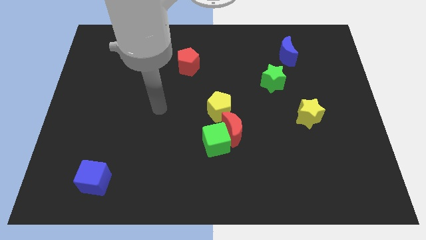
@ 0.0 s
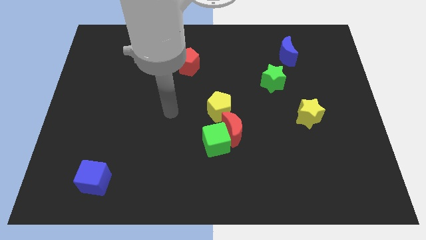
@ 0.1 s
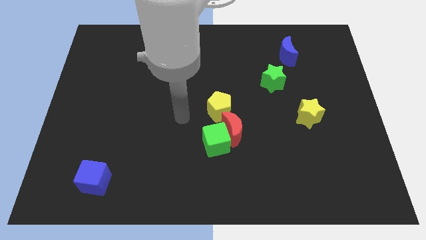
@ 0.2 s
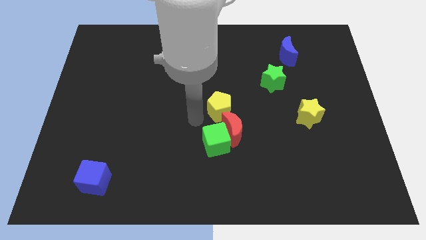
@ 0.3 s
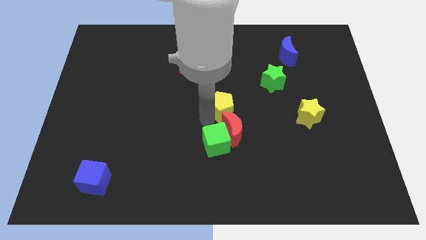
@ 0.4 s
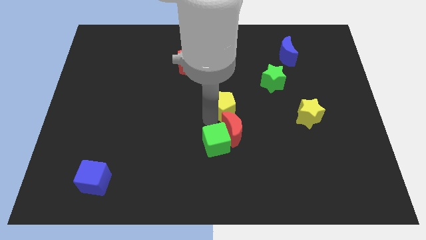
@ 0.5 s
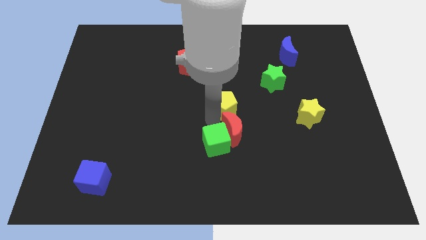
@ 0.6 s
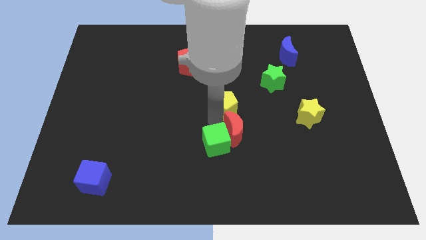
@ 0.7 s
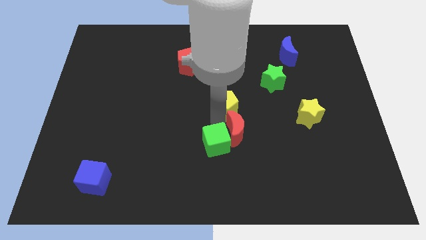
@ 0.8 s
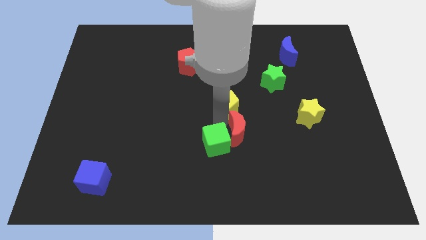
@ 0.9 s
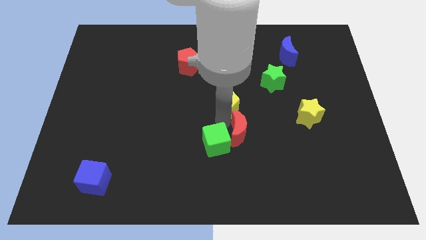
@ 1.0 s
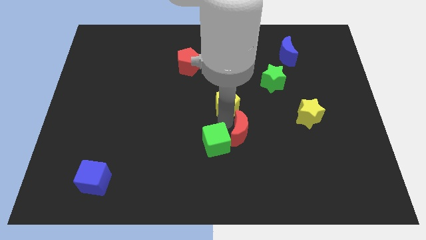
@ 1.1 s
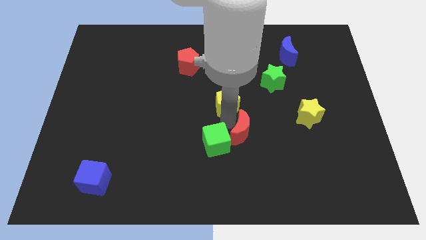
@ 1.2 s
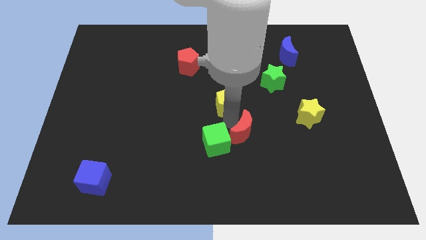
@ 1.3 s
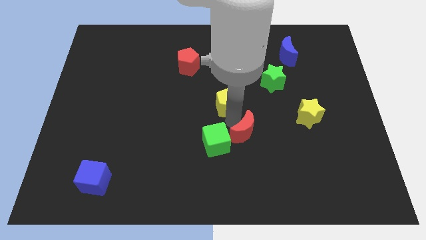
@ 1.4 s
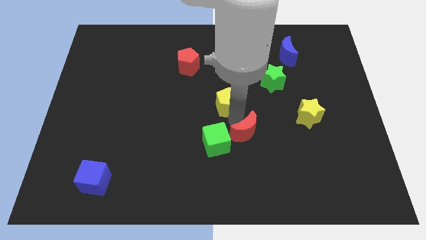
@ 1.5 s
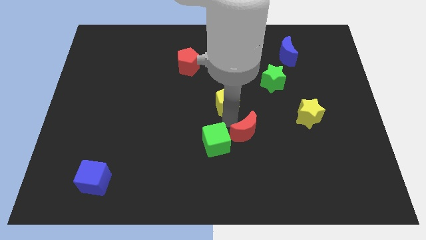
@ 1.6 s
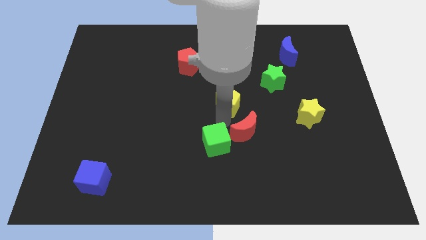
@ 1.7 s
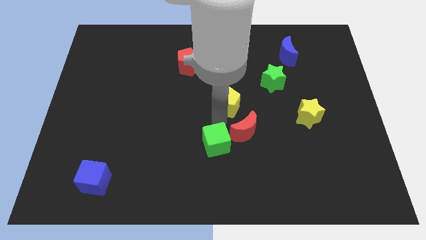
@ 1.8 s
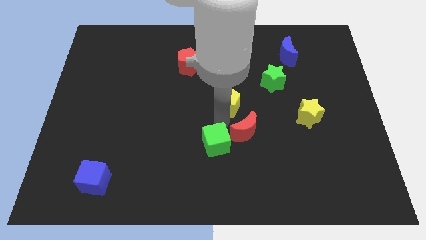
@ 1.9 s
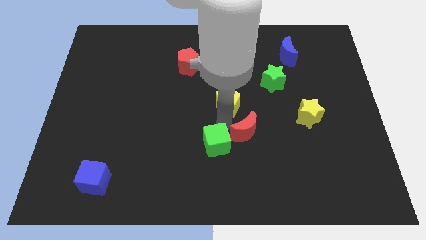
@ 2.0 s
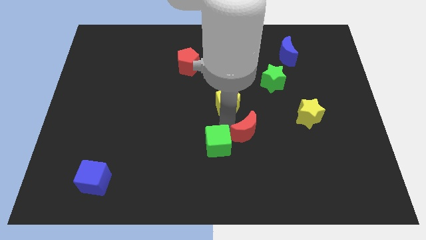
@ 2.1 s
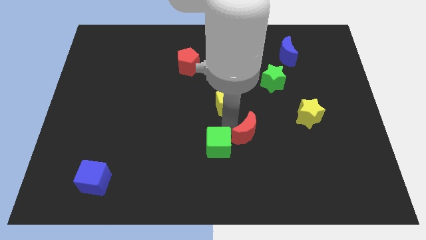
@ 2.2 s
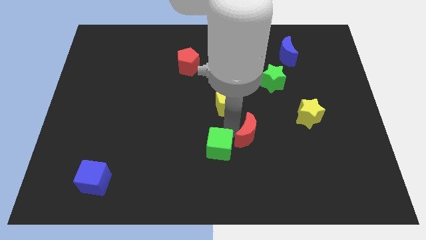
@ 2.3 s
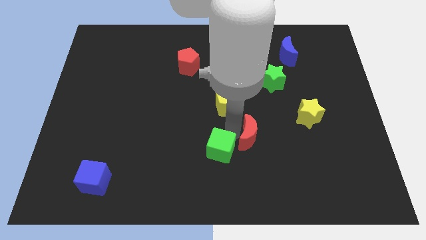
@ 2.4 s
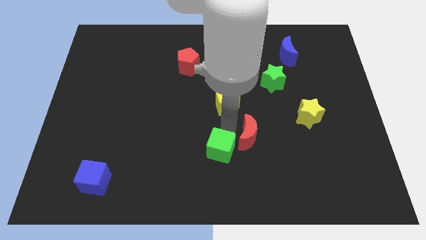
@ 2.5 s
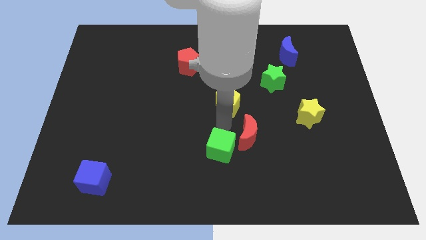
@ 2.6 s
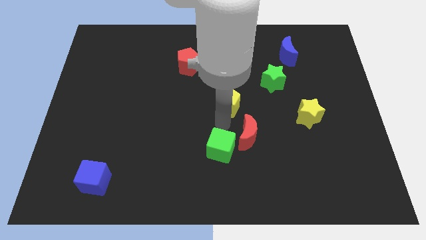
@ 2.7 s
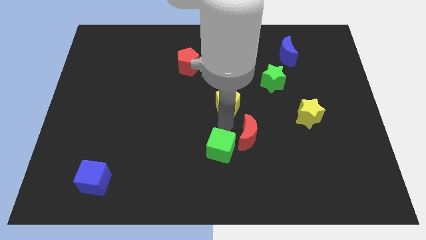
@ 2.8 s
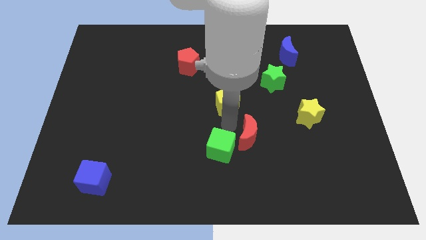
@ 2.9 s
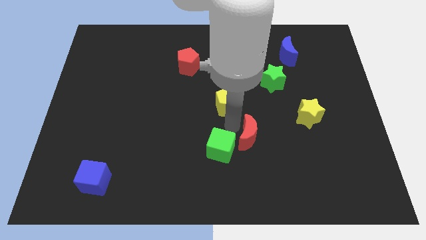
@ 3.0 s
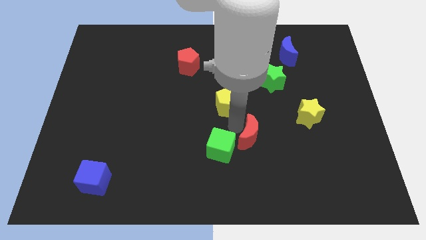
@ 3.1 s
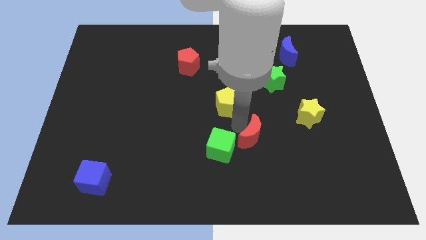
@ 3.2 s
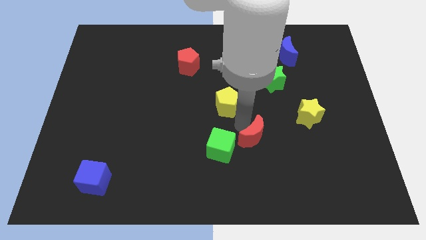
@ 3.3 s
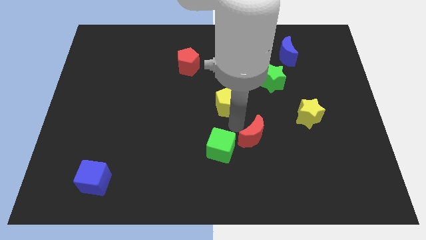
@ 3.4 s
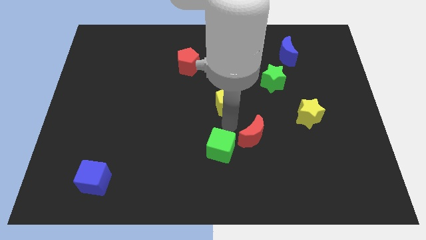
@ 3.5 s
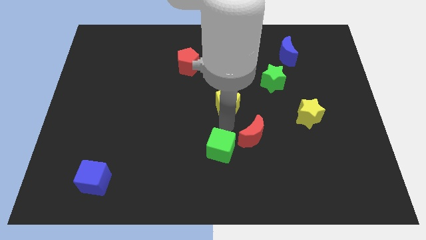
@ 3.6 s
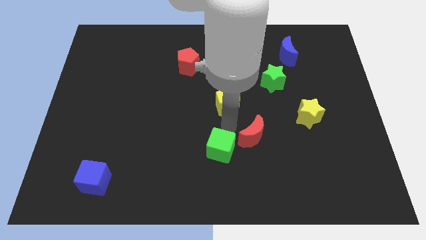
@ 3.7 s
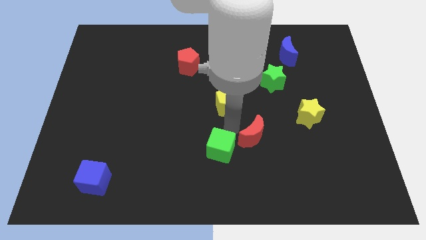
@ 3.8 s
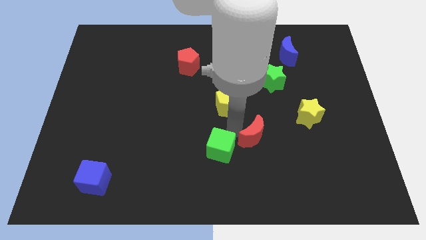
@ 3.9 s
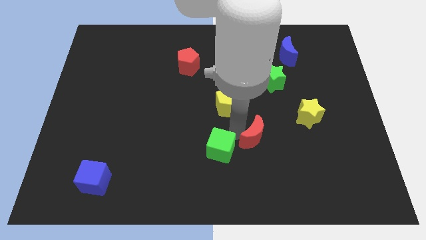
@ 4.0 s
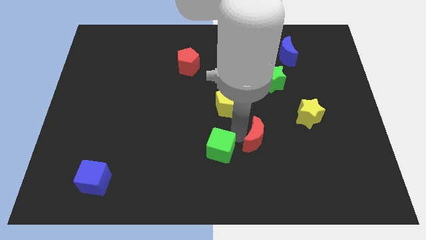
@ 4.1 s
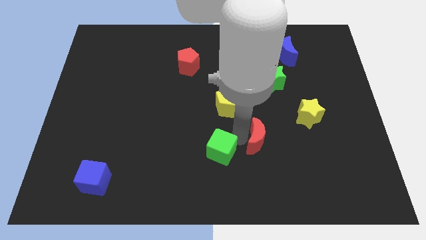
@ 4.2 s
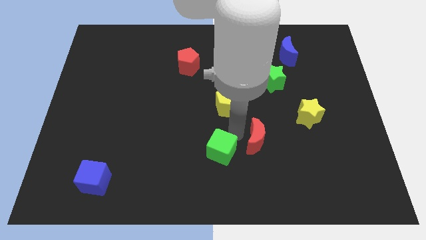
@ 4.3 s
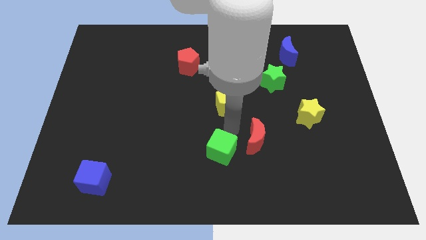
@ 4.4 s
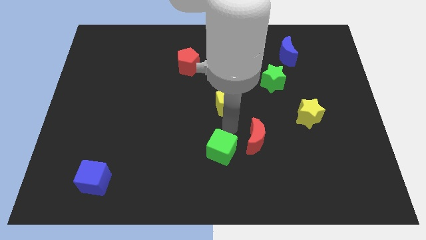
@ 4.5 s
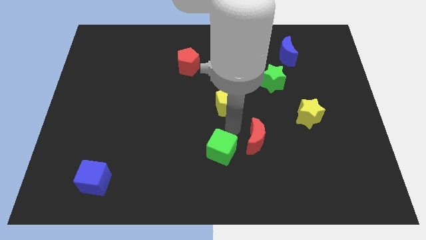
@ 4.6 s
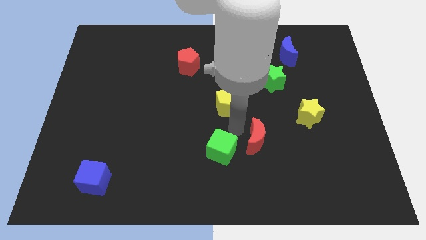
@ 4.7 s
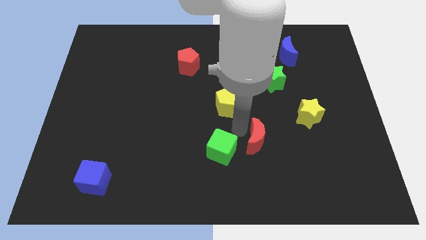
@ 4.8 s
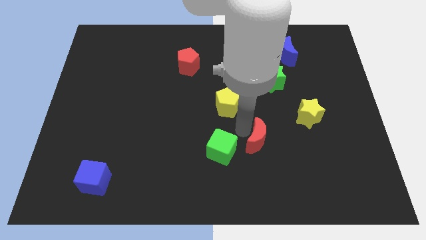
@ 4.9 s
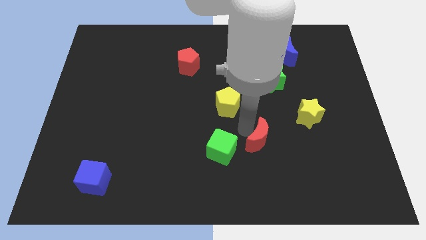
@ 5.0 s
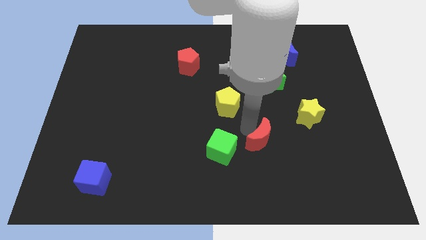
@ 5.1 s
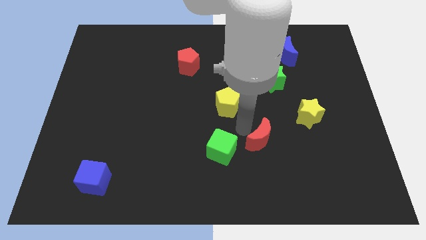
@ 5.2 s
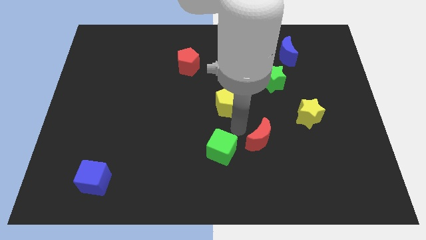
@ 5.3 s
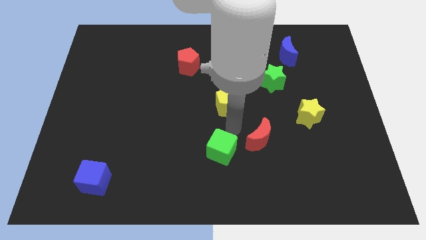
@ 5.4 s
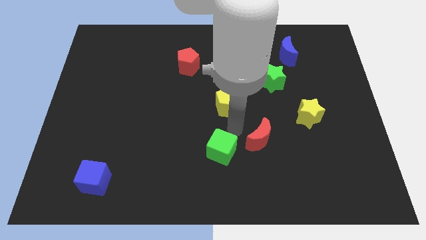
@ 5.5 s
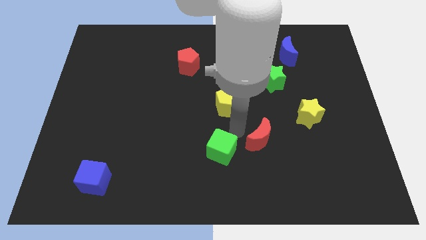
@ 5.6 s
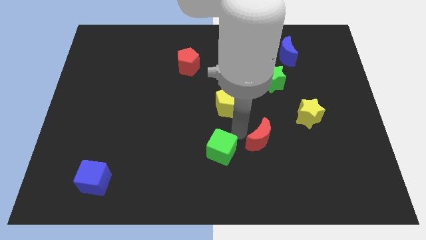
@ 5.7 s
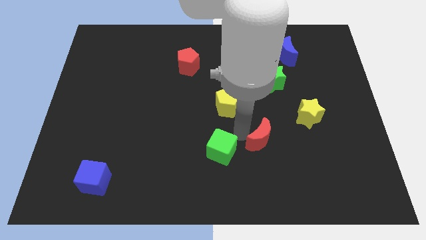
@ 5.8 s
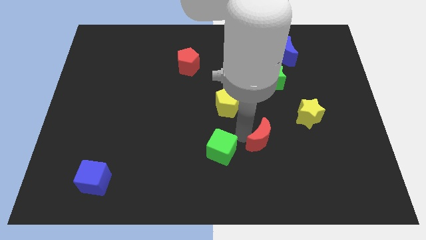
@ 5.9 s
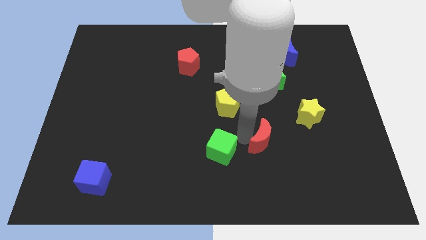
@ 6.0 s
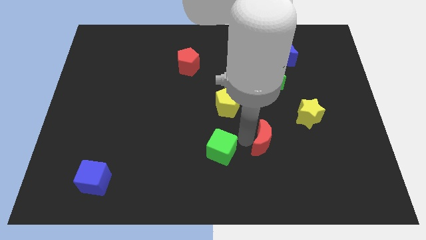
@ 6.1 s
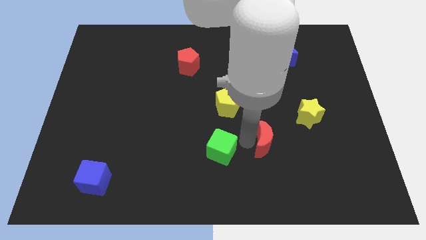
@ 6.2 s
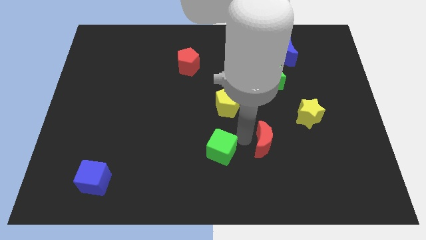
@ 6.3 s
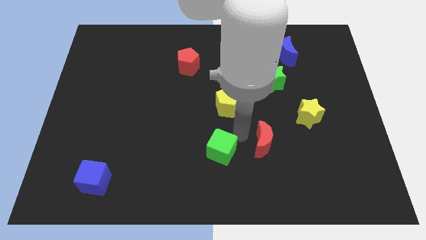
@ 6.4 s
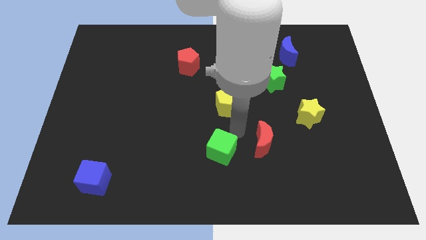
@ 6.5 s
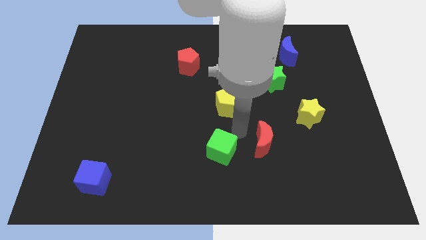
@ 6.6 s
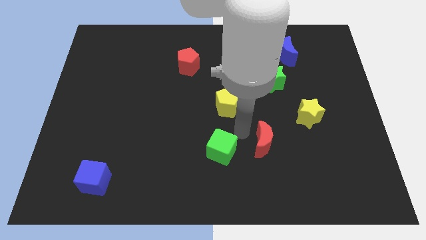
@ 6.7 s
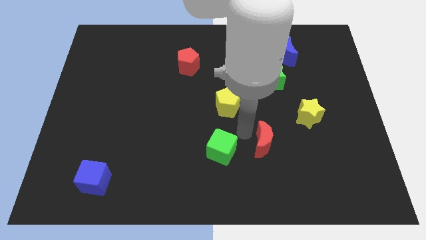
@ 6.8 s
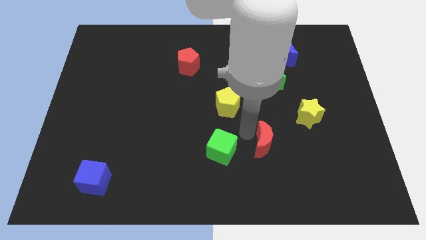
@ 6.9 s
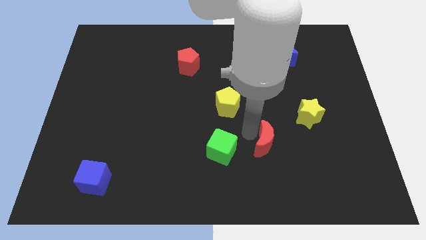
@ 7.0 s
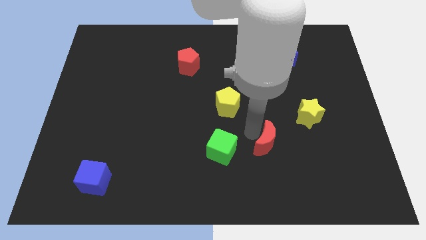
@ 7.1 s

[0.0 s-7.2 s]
separate the red moon from the green cube and yellow pentagon

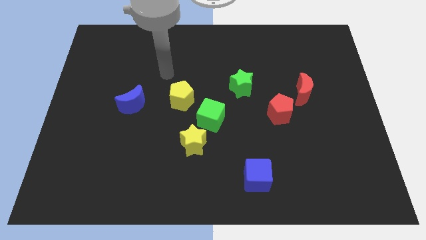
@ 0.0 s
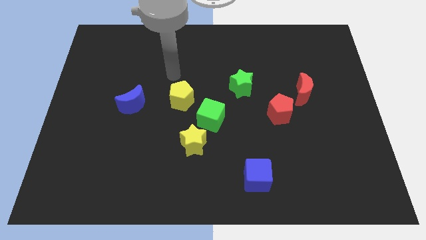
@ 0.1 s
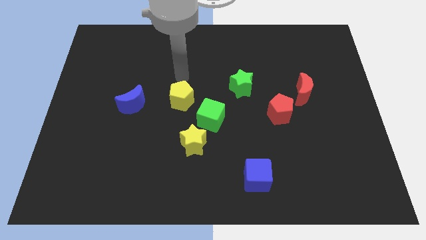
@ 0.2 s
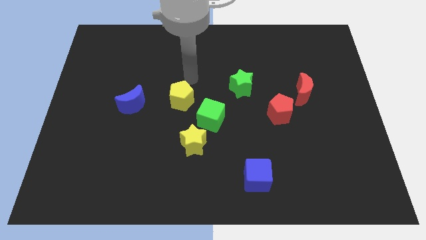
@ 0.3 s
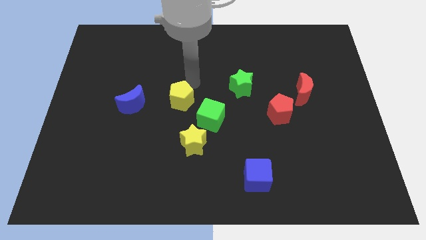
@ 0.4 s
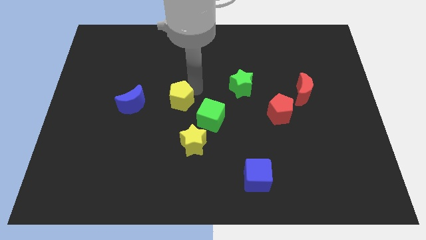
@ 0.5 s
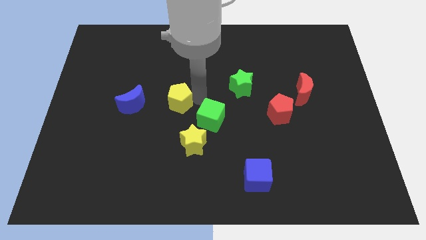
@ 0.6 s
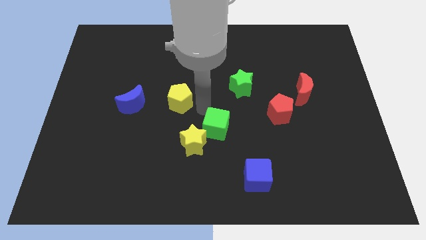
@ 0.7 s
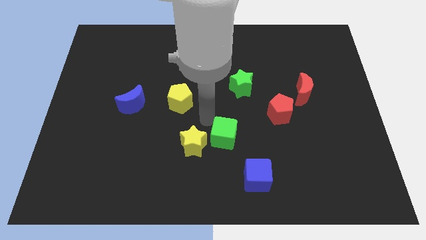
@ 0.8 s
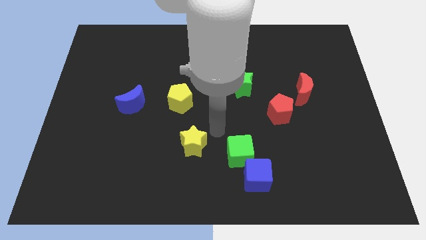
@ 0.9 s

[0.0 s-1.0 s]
pull the yellow star apart from the green cube

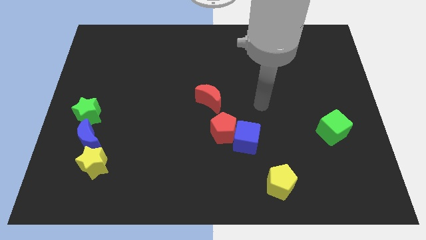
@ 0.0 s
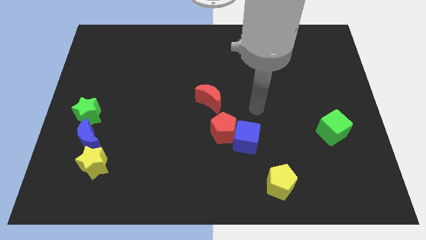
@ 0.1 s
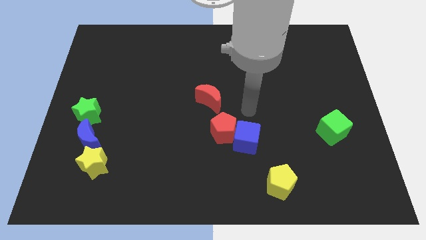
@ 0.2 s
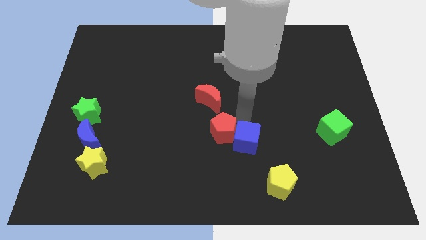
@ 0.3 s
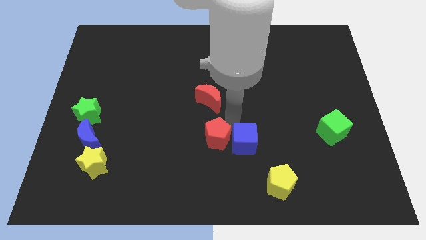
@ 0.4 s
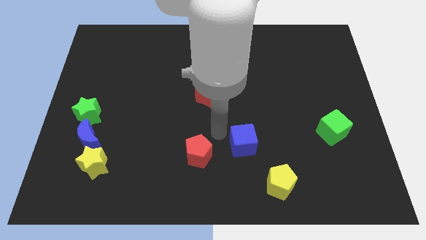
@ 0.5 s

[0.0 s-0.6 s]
pull the blue cube apart from the red pentagon

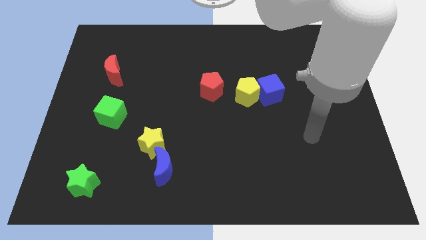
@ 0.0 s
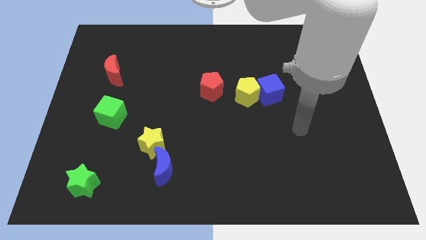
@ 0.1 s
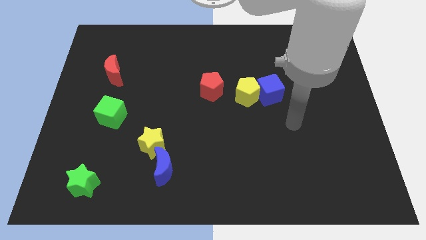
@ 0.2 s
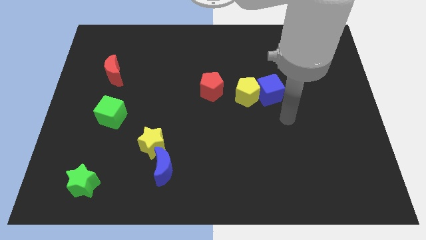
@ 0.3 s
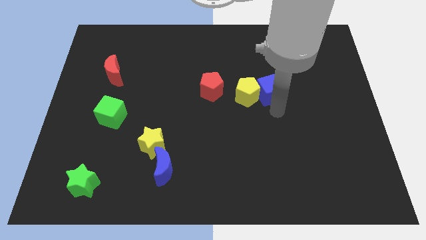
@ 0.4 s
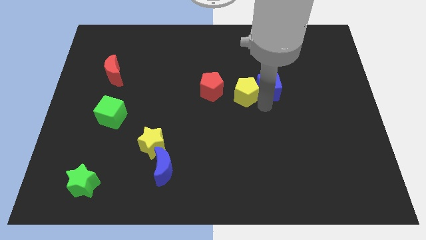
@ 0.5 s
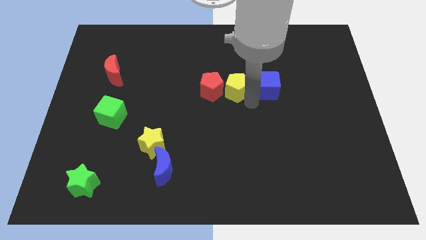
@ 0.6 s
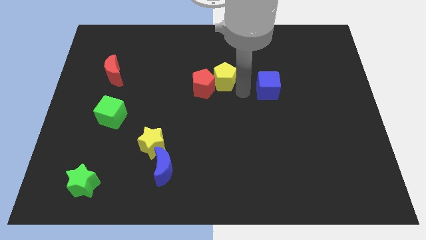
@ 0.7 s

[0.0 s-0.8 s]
separate the blue cube from the yellow pentagon
